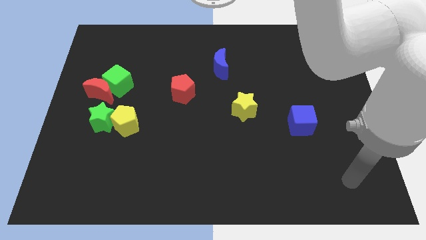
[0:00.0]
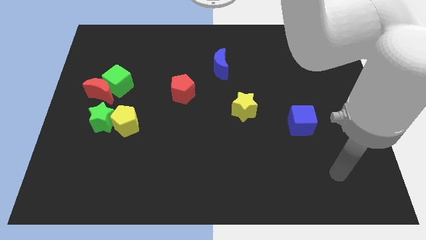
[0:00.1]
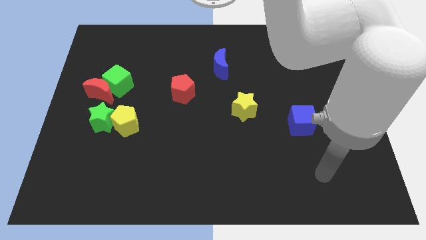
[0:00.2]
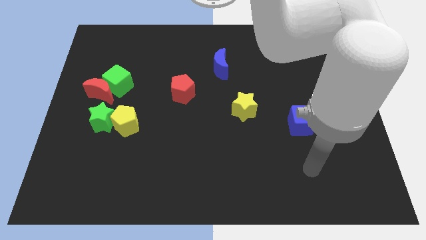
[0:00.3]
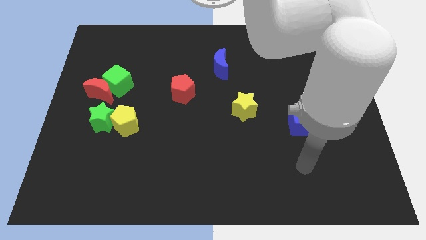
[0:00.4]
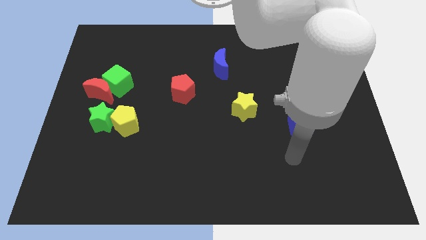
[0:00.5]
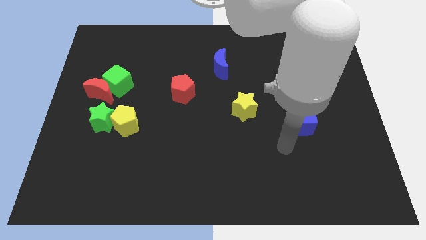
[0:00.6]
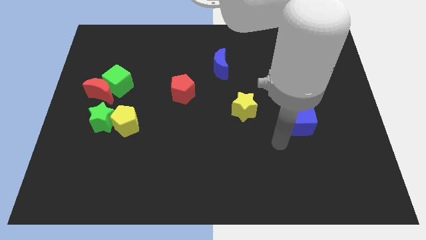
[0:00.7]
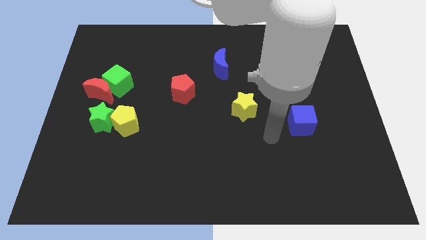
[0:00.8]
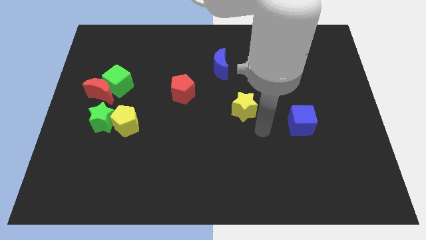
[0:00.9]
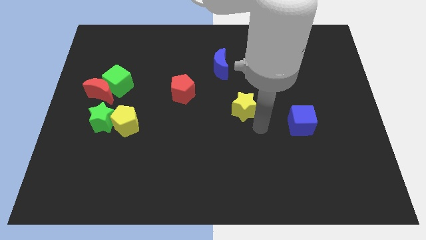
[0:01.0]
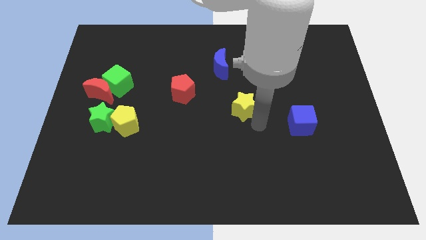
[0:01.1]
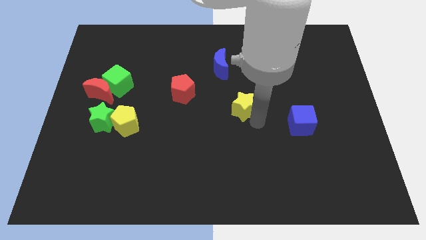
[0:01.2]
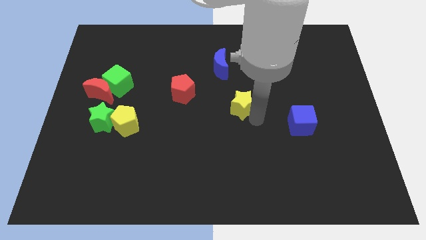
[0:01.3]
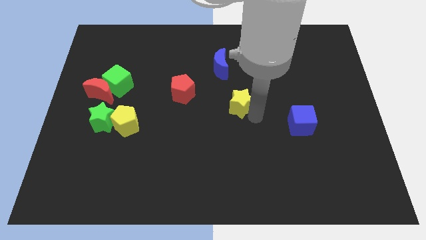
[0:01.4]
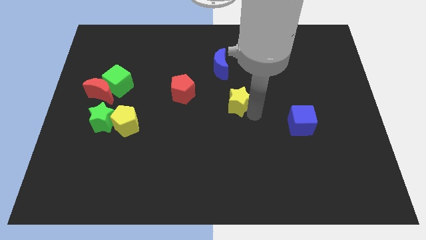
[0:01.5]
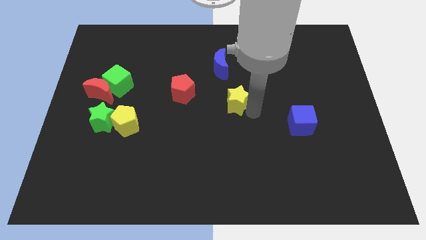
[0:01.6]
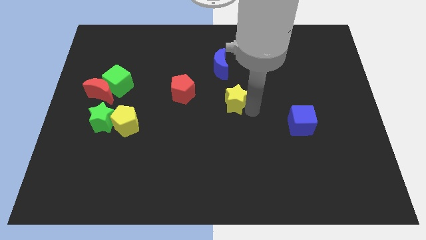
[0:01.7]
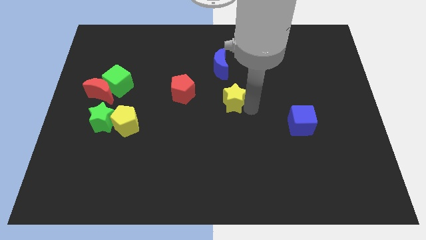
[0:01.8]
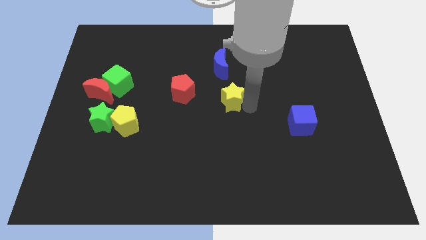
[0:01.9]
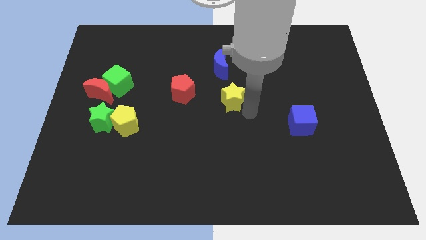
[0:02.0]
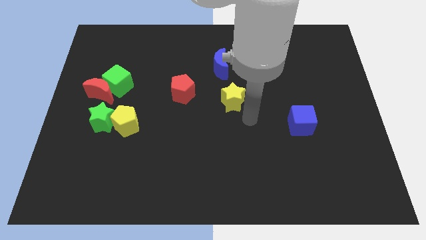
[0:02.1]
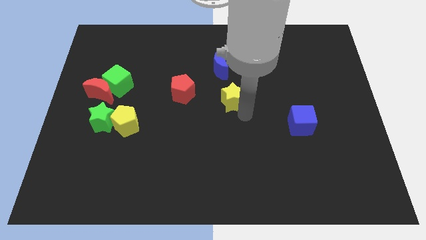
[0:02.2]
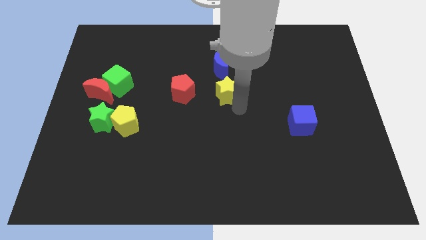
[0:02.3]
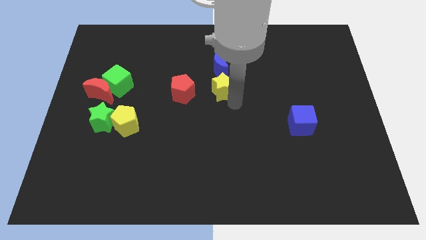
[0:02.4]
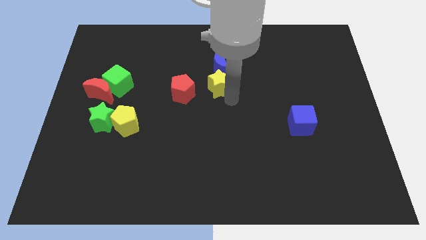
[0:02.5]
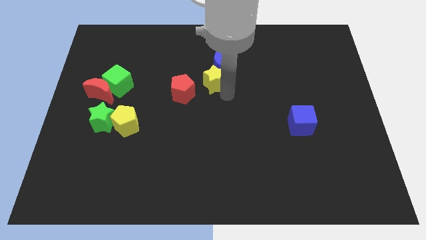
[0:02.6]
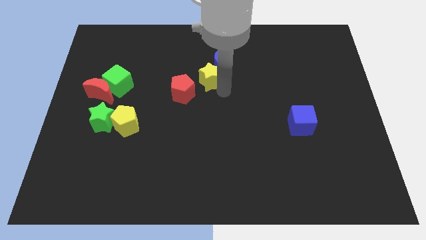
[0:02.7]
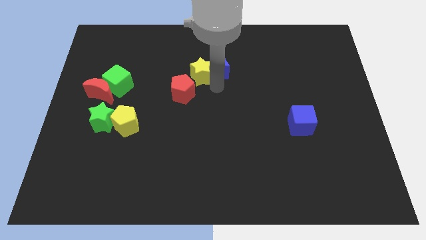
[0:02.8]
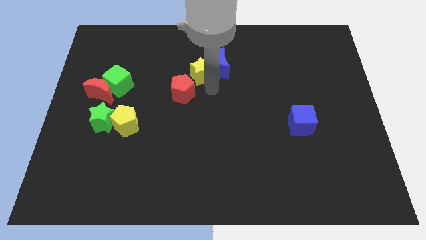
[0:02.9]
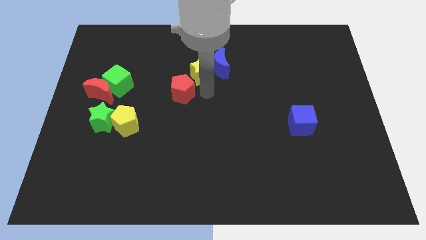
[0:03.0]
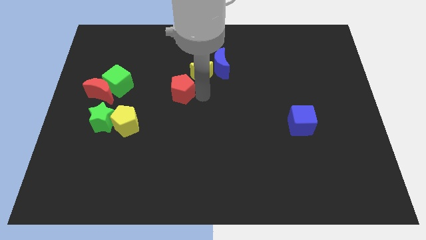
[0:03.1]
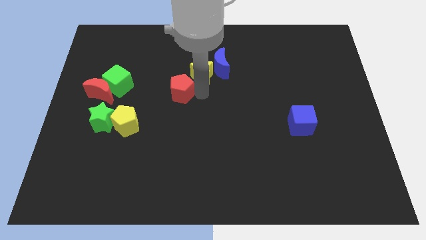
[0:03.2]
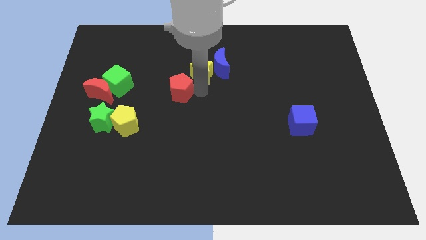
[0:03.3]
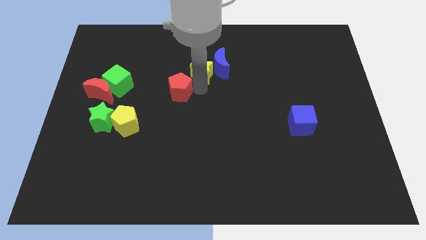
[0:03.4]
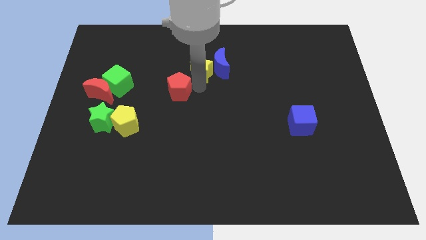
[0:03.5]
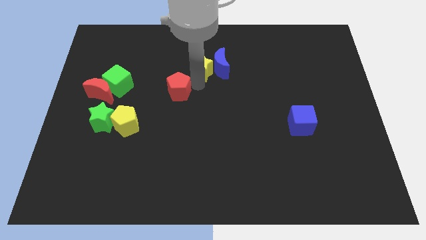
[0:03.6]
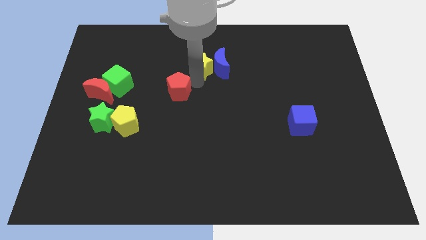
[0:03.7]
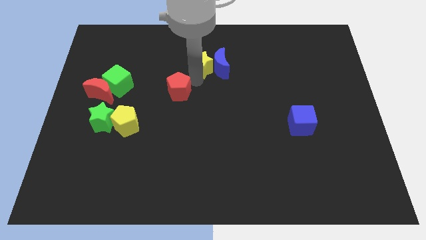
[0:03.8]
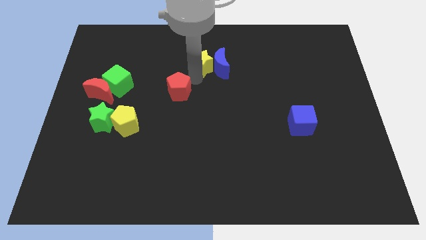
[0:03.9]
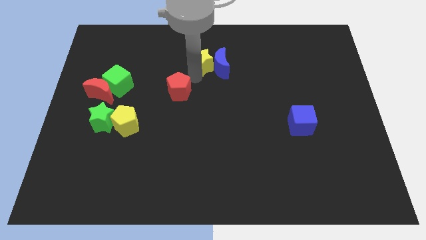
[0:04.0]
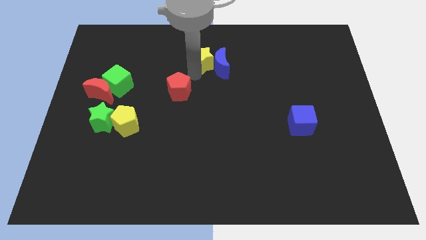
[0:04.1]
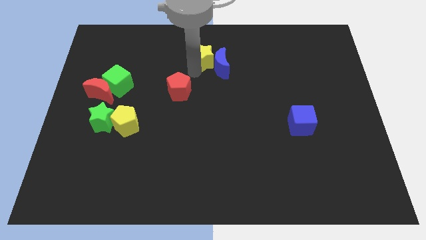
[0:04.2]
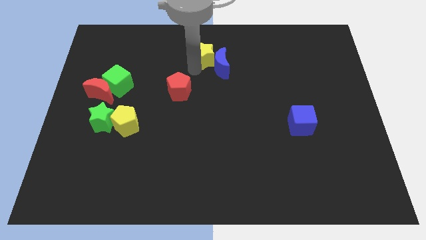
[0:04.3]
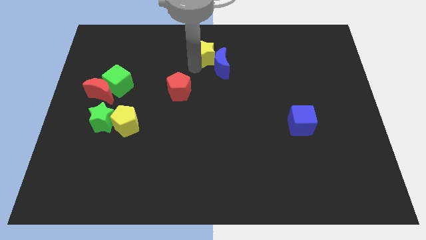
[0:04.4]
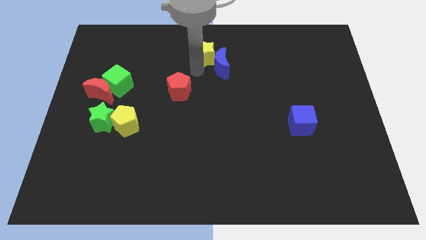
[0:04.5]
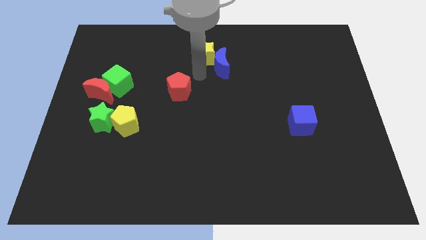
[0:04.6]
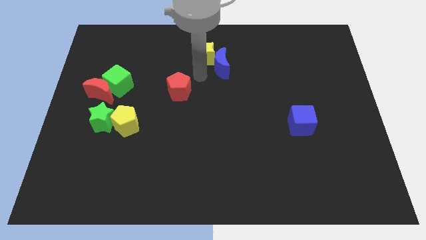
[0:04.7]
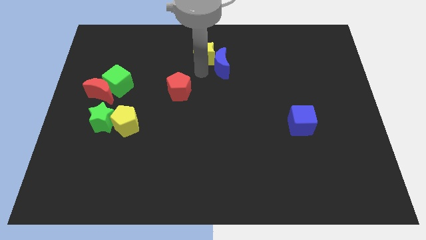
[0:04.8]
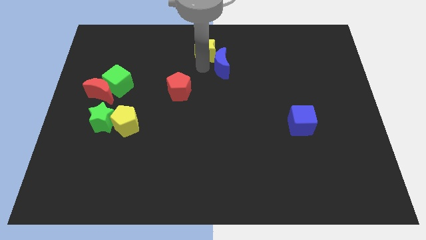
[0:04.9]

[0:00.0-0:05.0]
push the yellow star to the towards your base

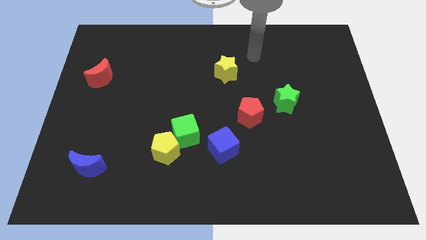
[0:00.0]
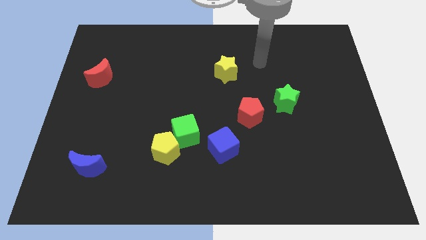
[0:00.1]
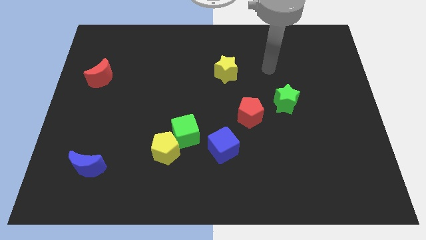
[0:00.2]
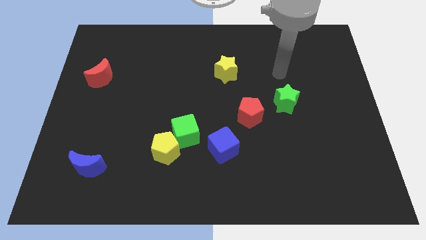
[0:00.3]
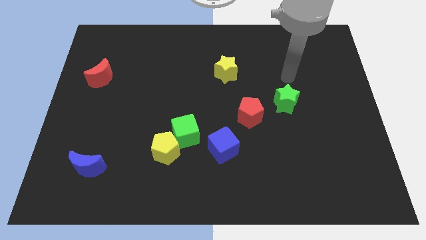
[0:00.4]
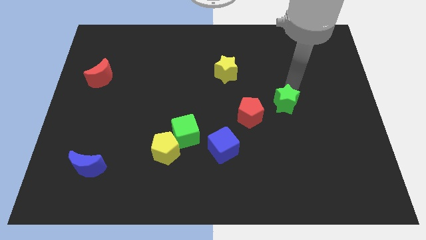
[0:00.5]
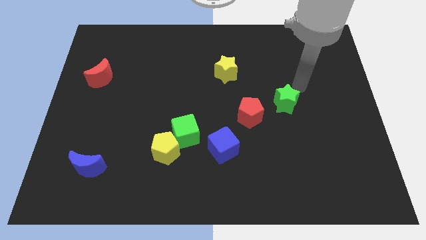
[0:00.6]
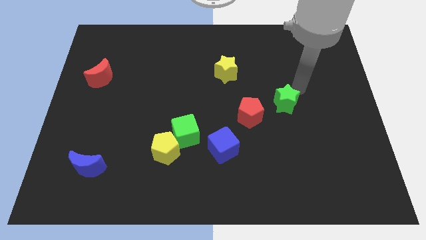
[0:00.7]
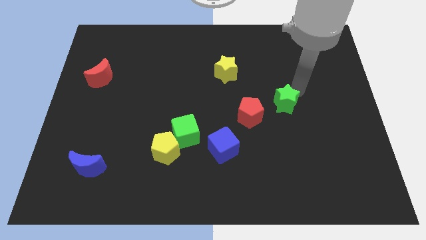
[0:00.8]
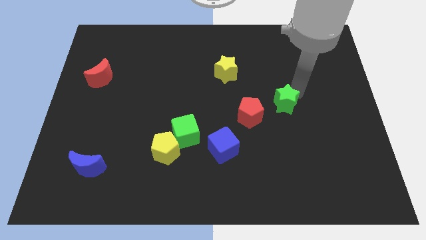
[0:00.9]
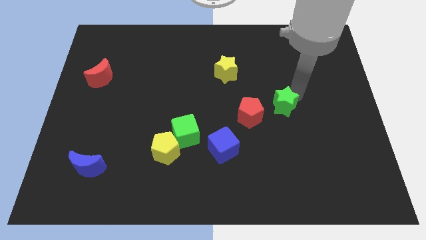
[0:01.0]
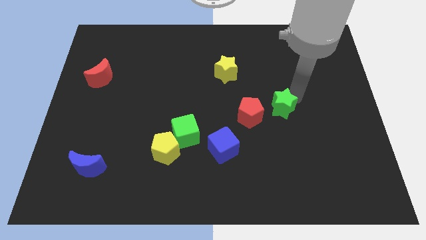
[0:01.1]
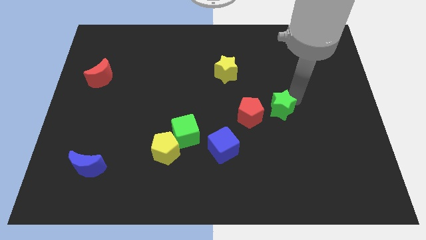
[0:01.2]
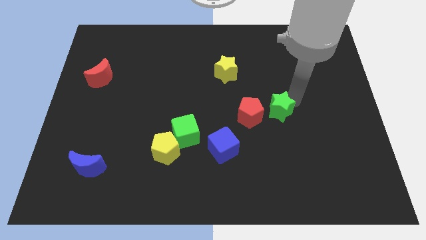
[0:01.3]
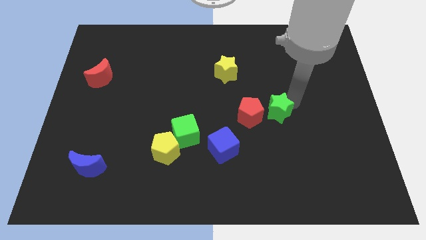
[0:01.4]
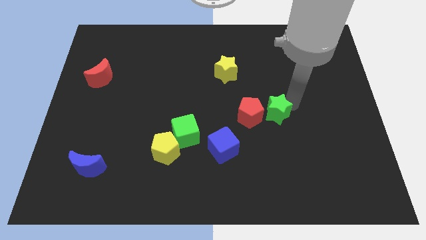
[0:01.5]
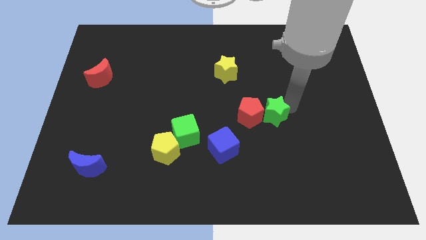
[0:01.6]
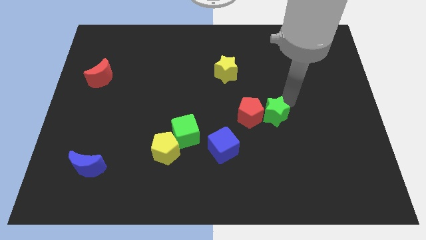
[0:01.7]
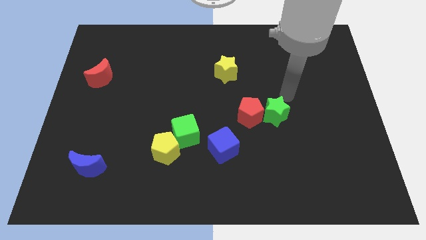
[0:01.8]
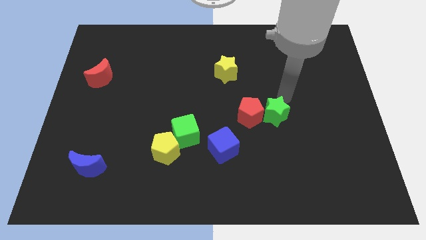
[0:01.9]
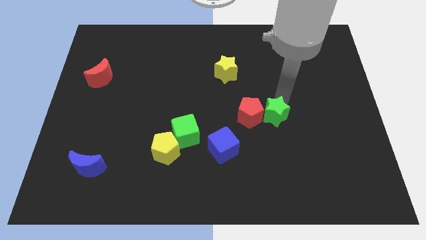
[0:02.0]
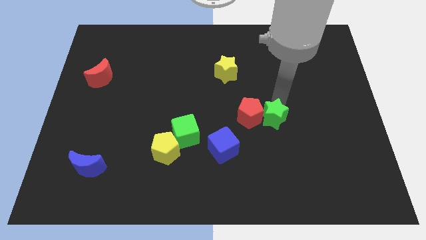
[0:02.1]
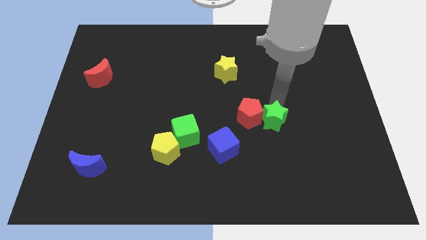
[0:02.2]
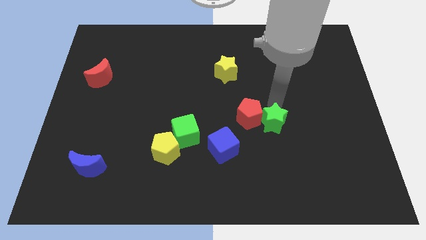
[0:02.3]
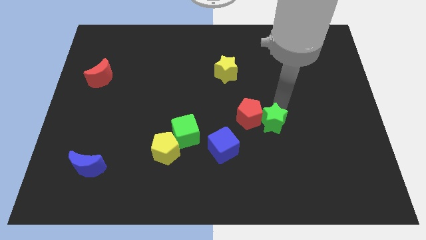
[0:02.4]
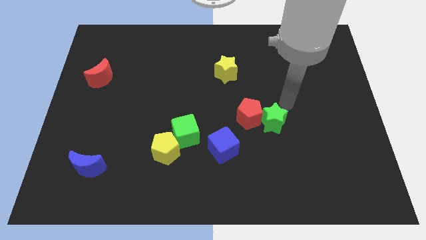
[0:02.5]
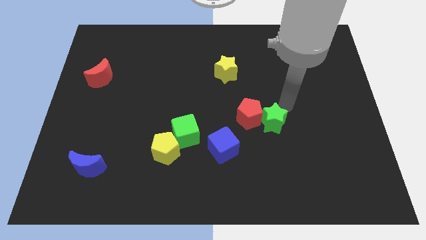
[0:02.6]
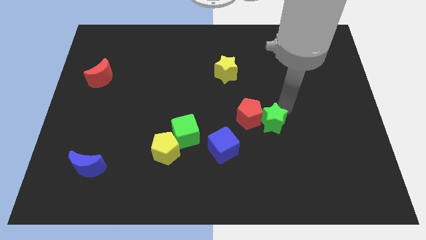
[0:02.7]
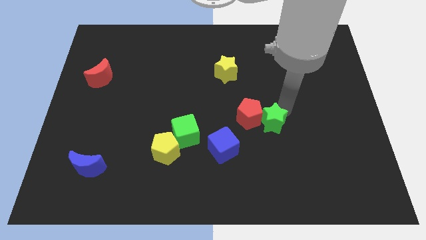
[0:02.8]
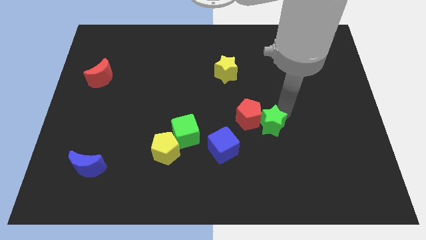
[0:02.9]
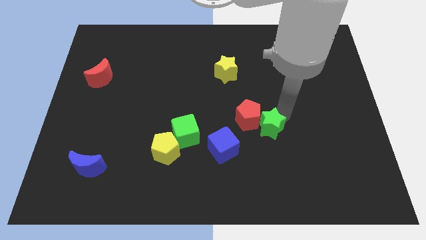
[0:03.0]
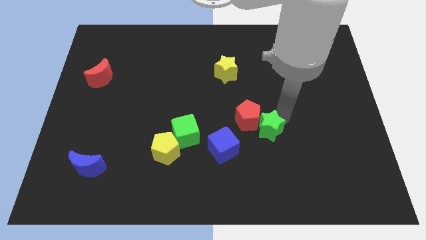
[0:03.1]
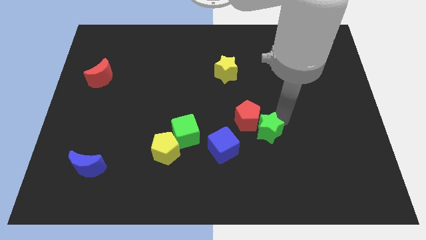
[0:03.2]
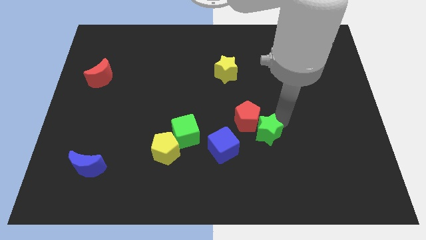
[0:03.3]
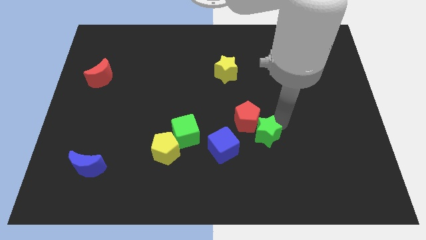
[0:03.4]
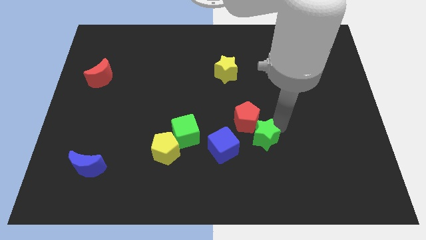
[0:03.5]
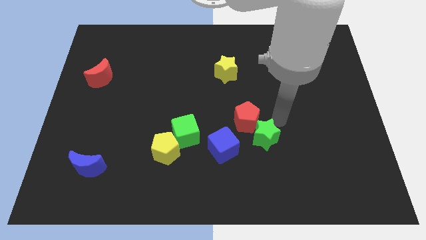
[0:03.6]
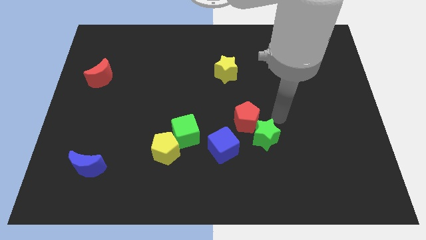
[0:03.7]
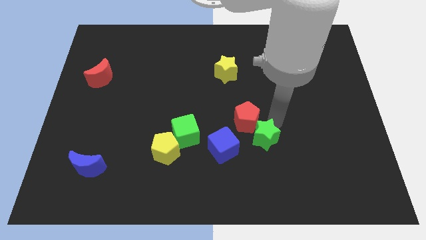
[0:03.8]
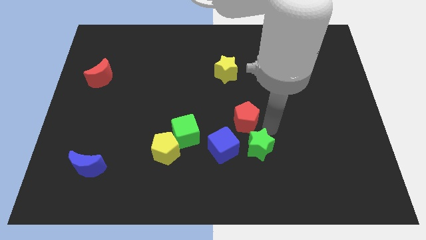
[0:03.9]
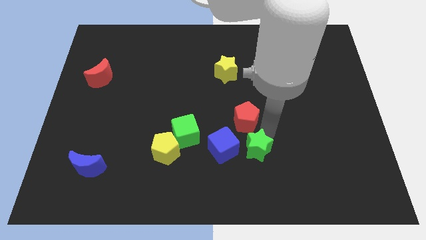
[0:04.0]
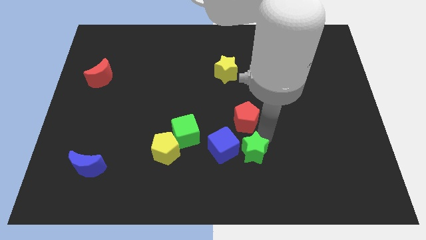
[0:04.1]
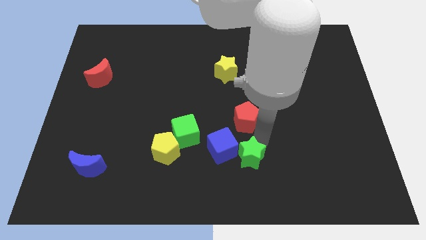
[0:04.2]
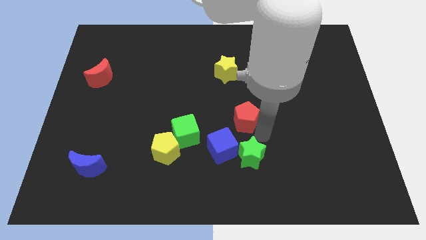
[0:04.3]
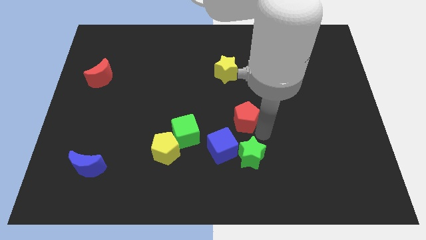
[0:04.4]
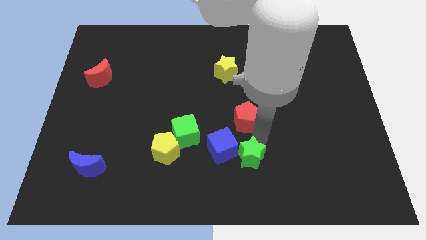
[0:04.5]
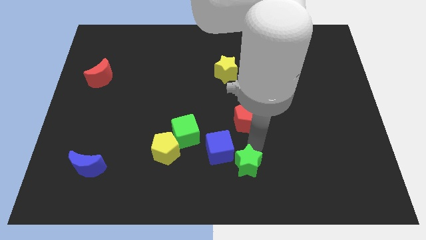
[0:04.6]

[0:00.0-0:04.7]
move the green star to the bottom side
